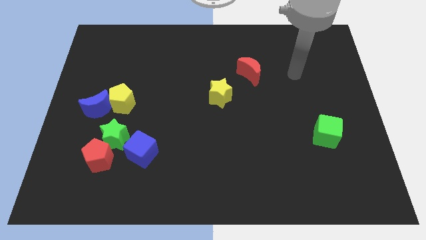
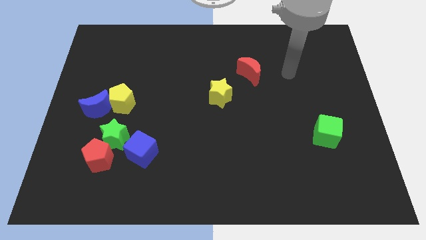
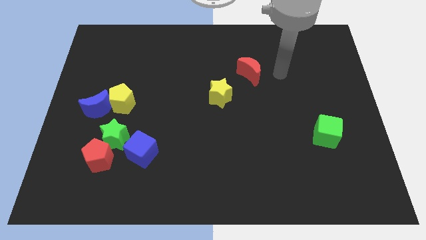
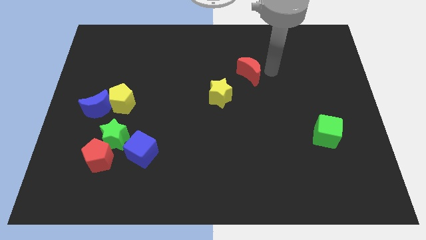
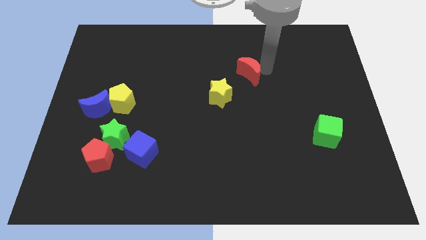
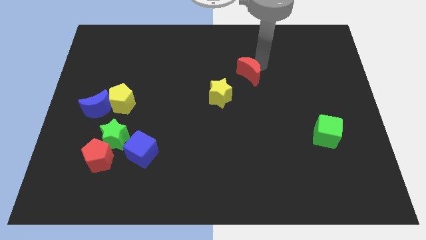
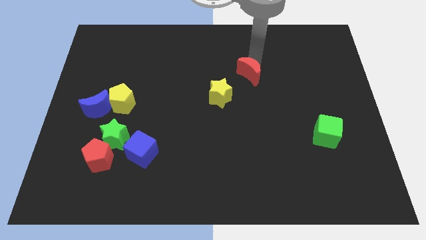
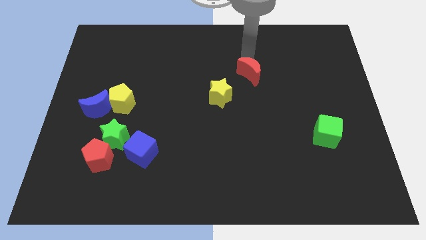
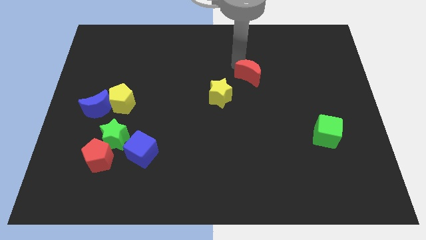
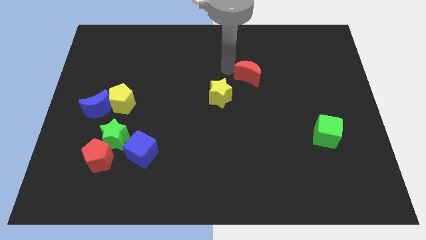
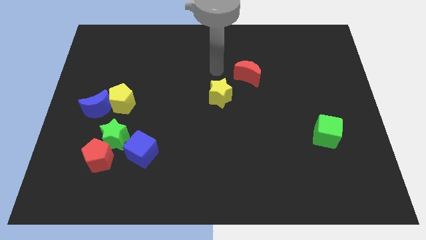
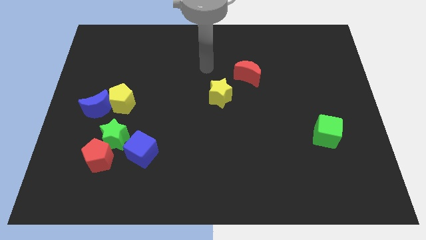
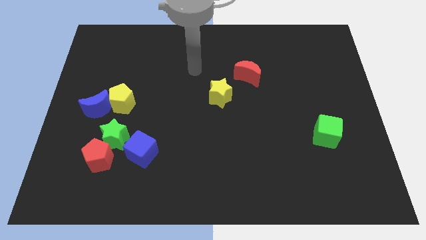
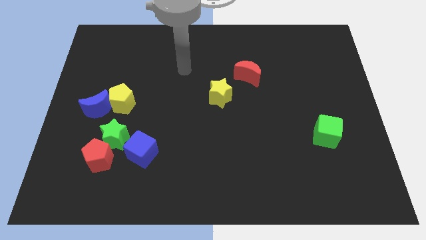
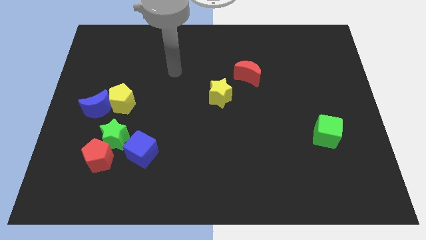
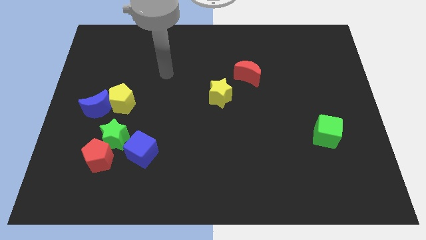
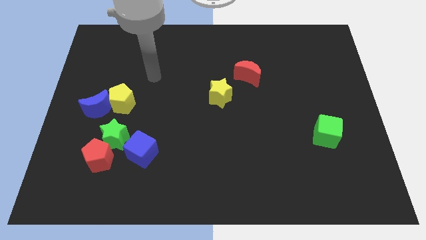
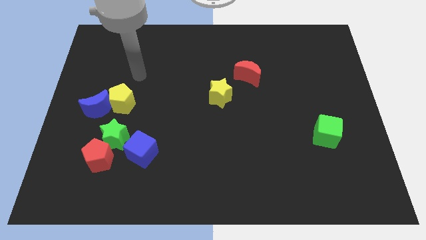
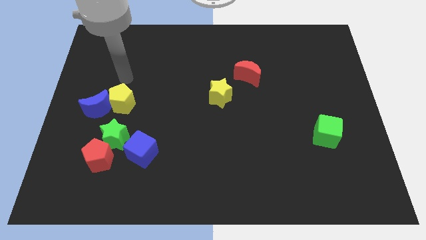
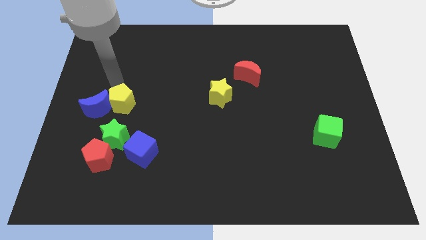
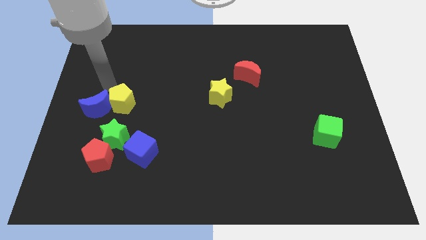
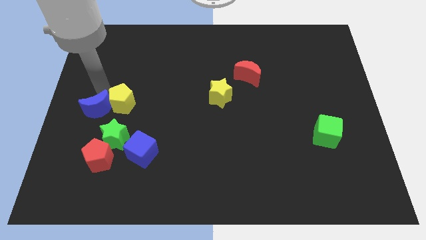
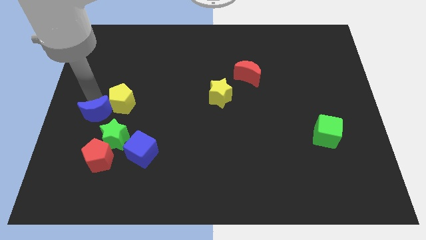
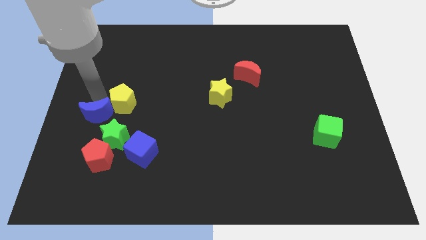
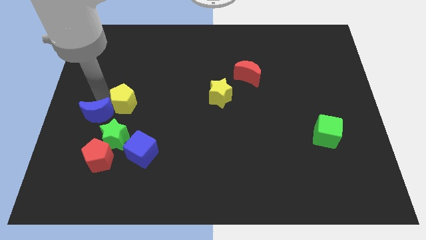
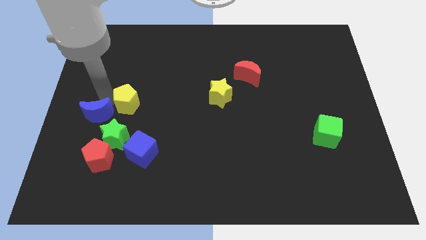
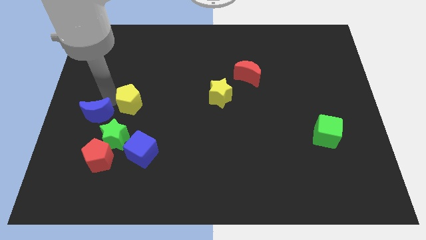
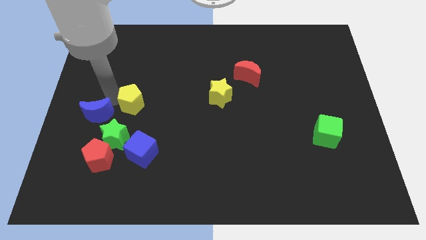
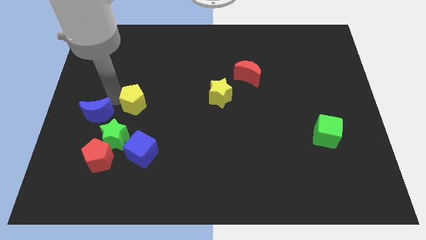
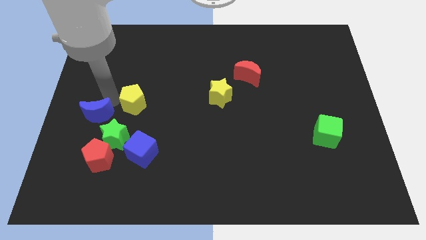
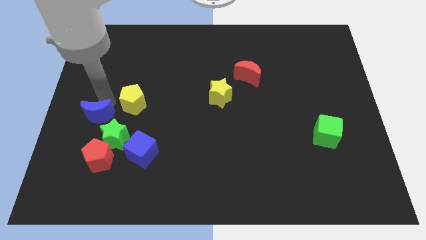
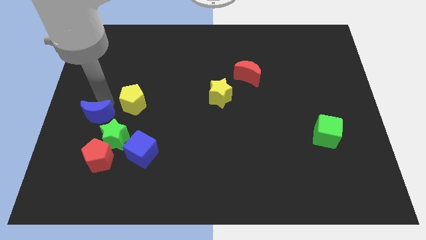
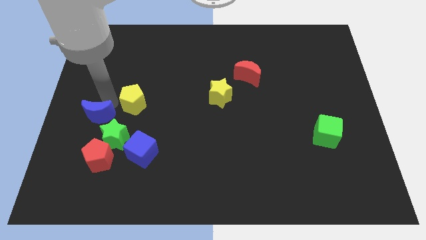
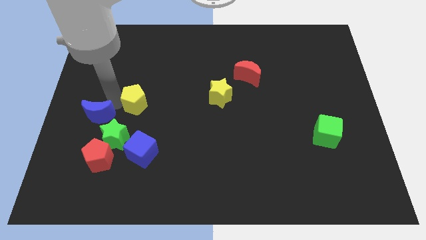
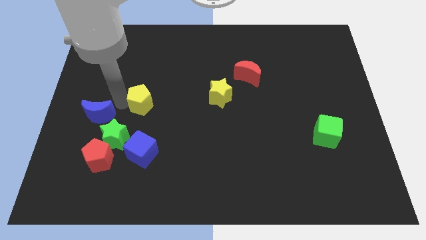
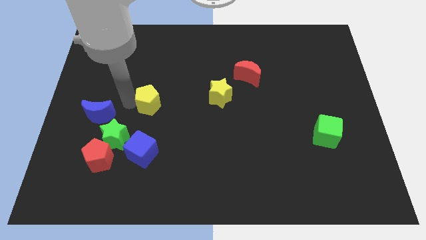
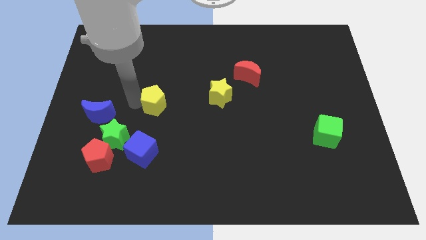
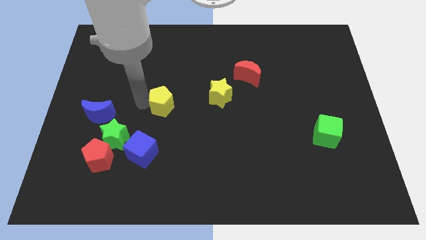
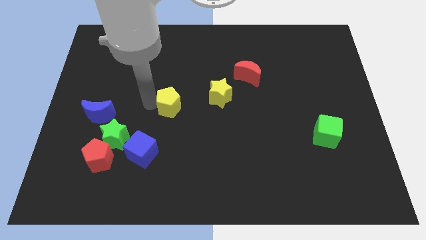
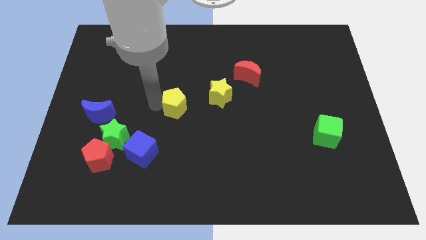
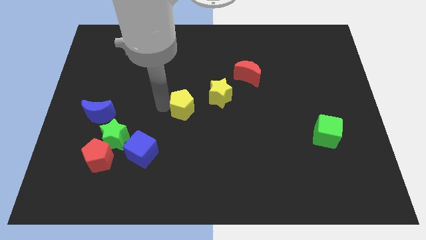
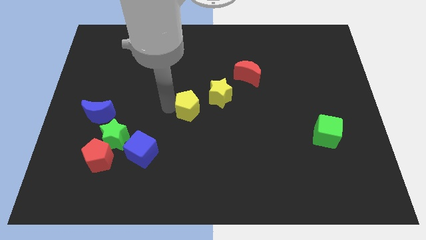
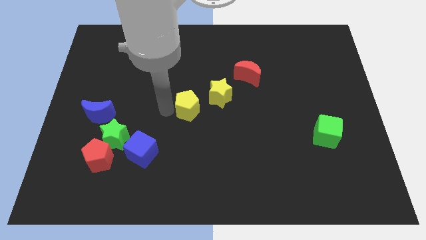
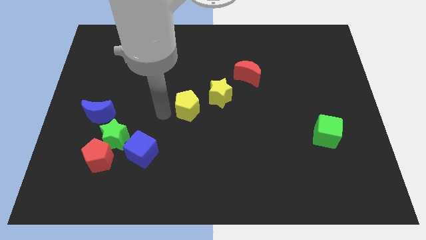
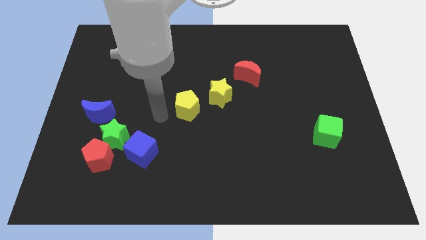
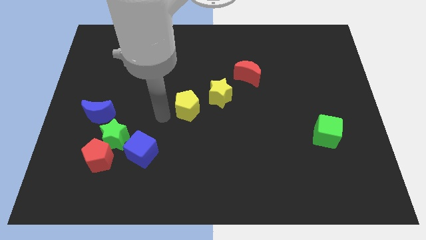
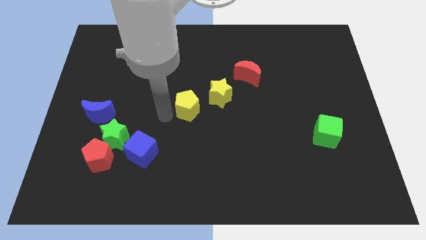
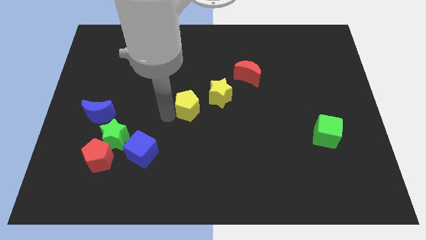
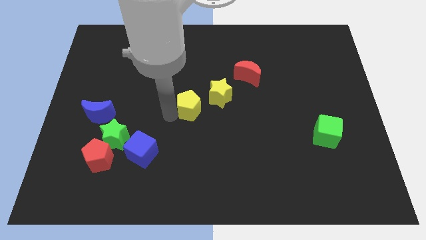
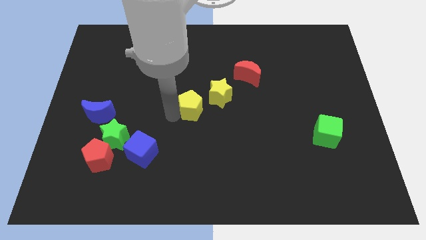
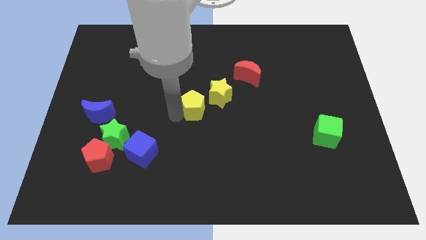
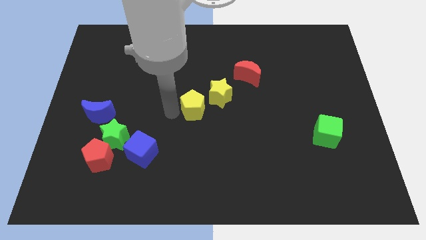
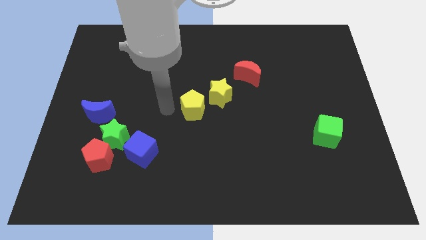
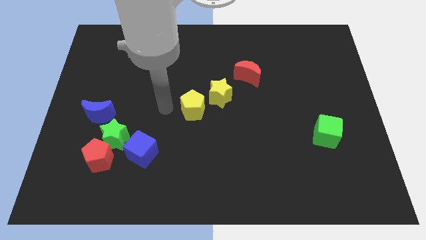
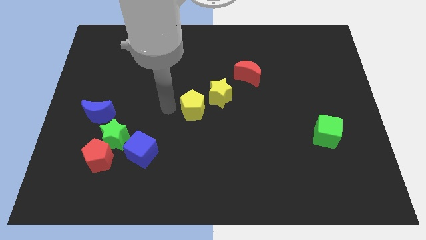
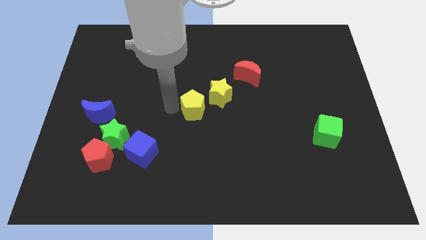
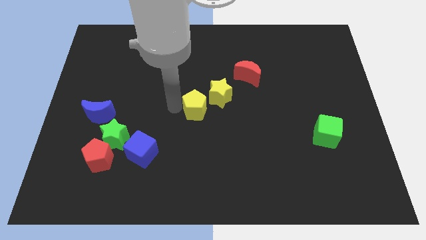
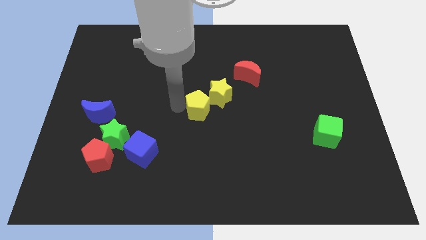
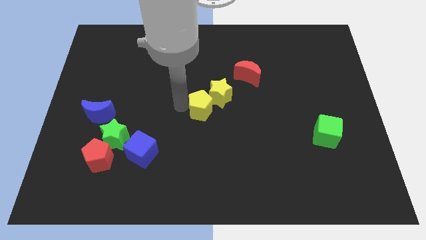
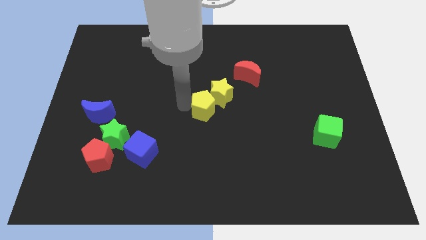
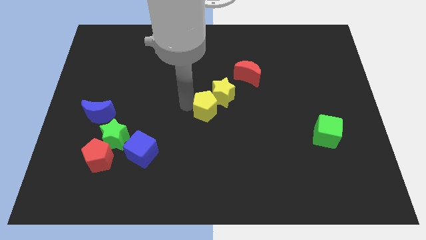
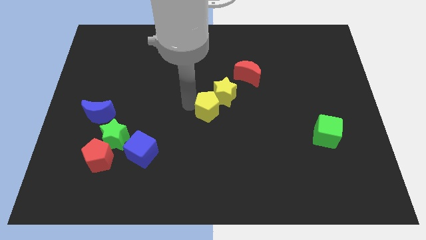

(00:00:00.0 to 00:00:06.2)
push the yellow pentagon right

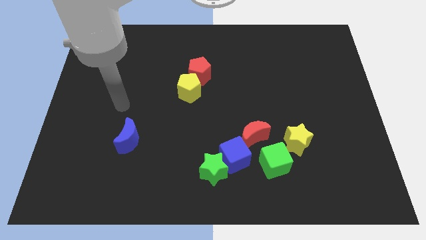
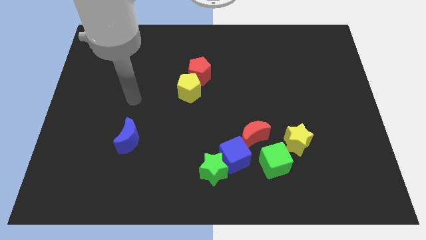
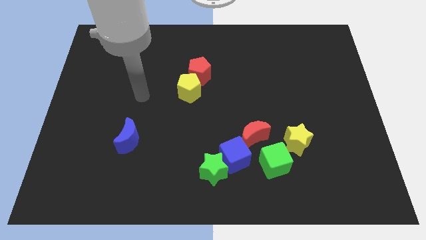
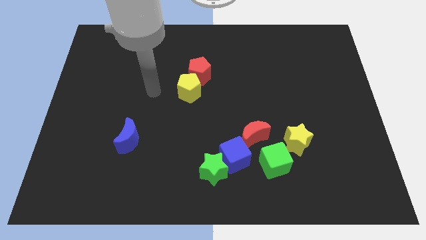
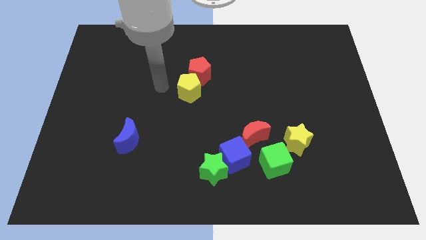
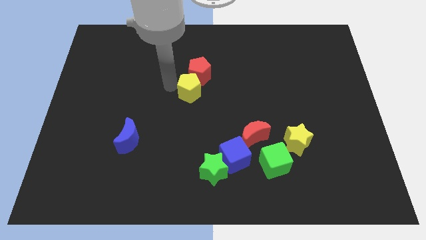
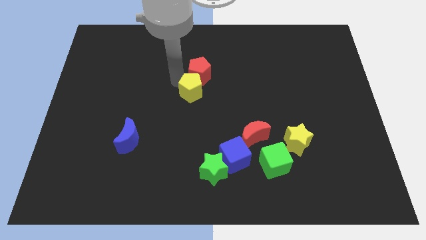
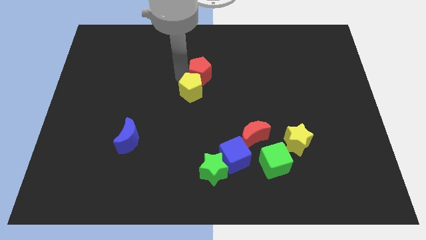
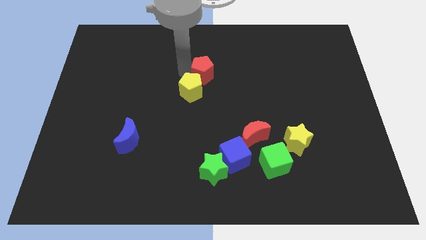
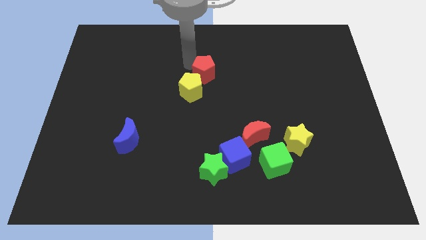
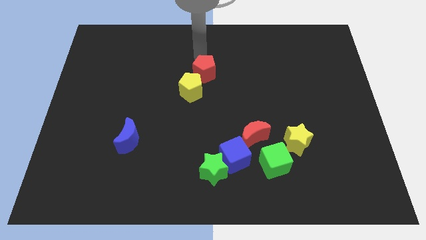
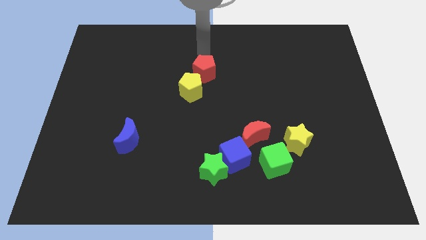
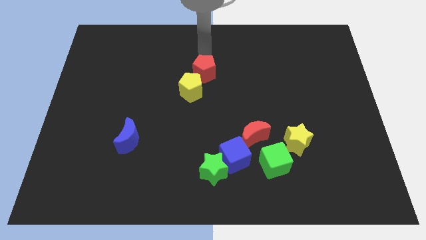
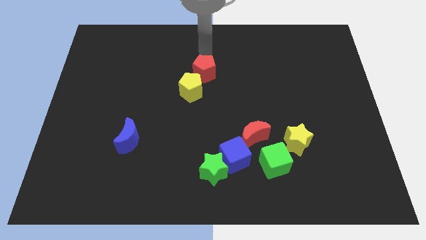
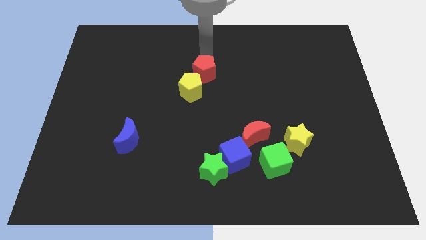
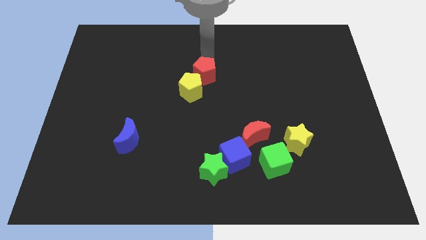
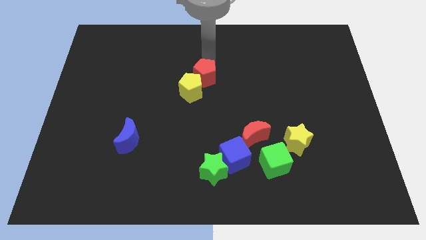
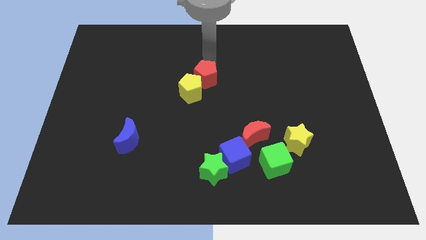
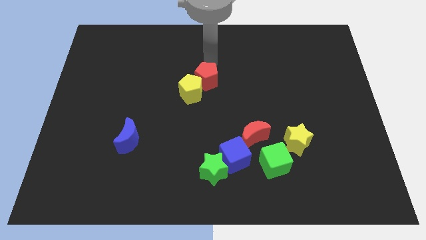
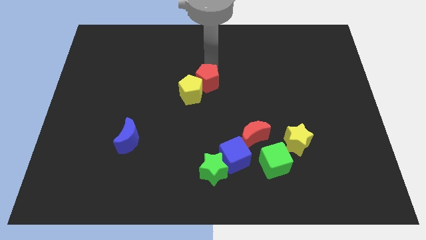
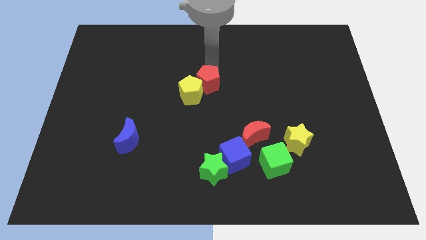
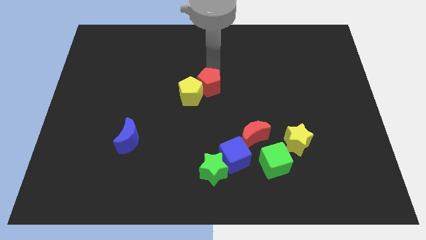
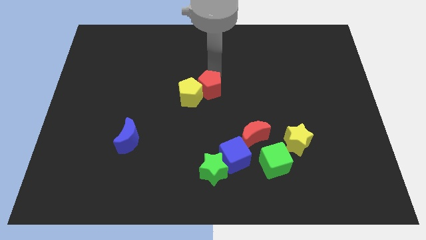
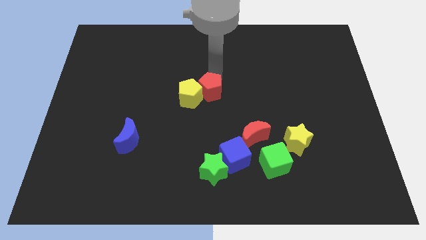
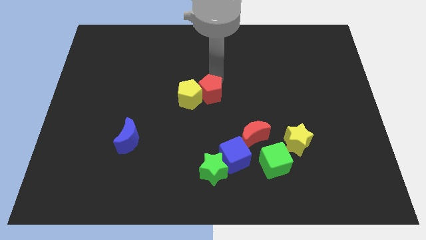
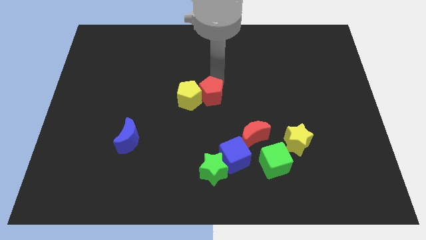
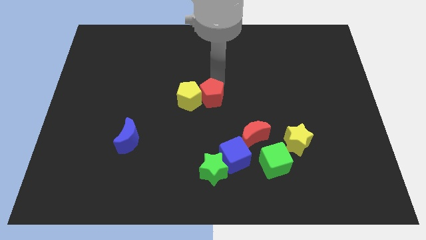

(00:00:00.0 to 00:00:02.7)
slightly push the red pentagon down
